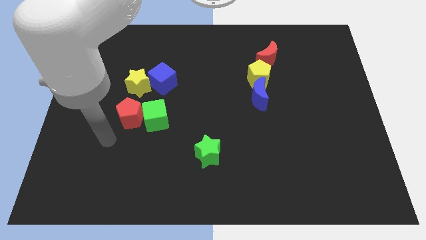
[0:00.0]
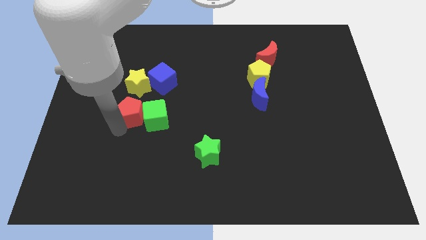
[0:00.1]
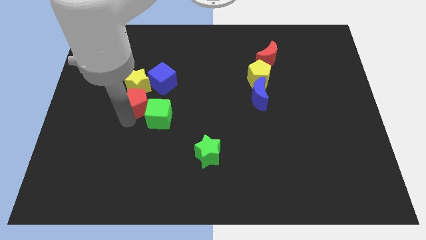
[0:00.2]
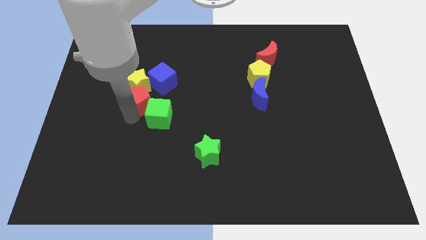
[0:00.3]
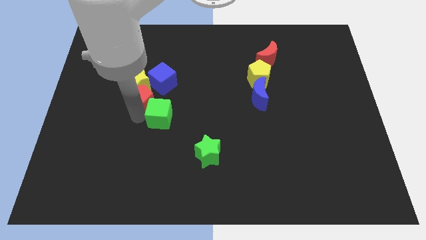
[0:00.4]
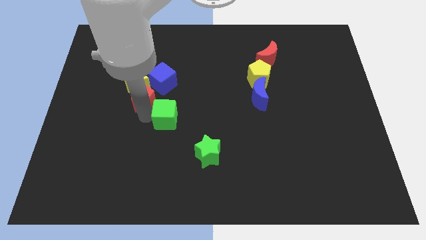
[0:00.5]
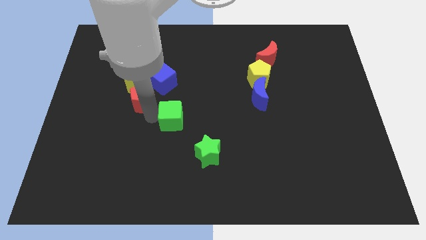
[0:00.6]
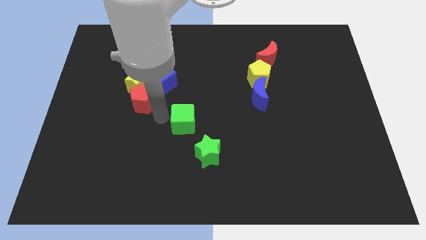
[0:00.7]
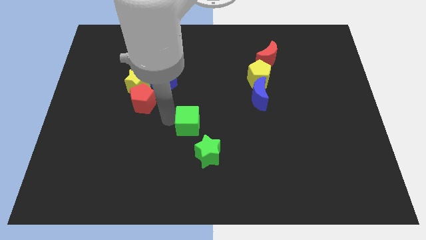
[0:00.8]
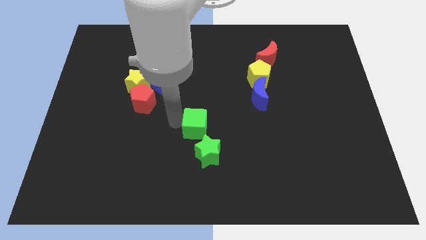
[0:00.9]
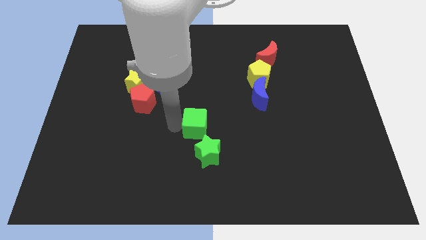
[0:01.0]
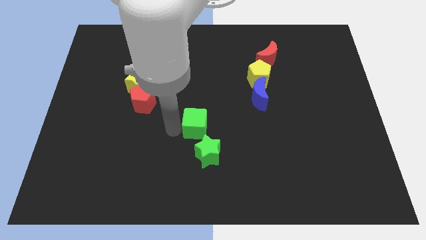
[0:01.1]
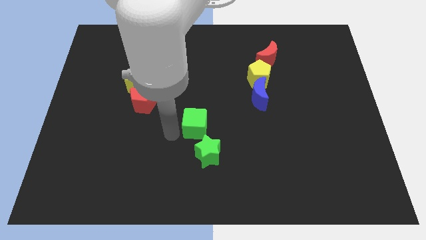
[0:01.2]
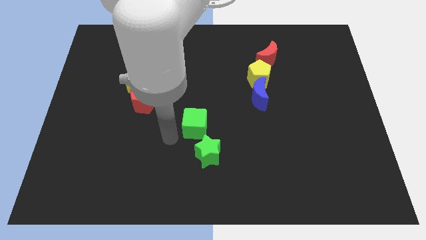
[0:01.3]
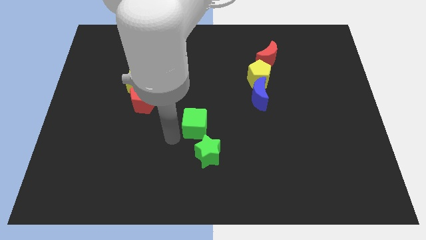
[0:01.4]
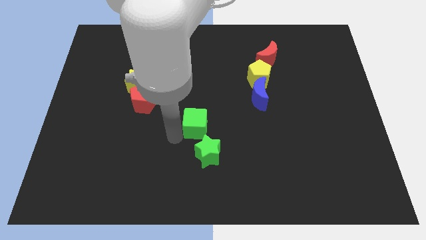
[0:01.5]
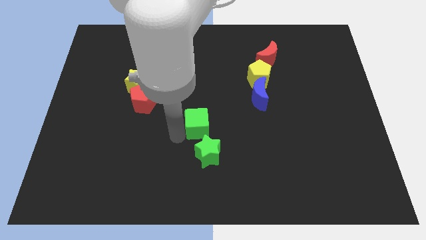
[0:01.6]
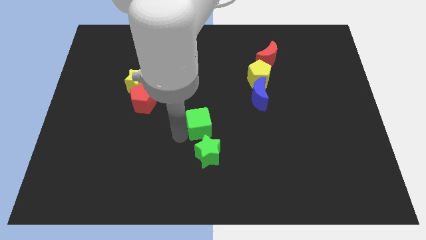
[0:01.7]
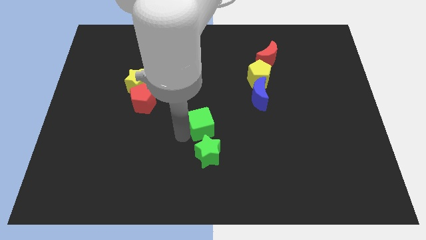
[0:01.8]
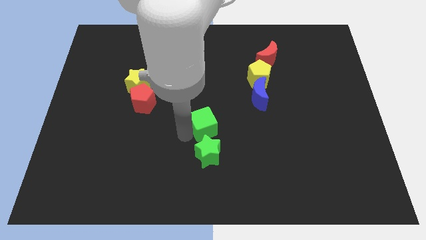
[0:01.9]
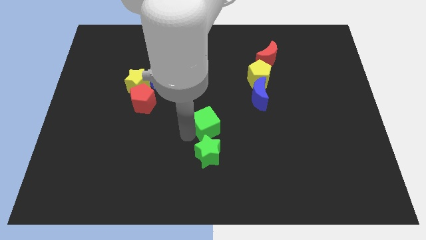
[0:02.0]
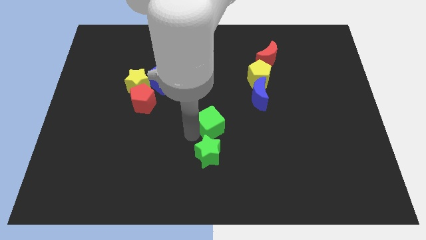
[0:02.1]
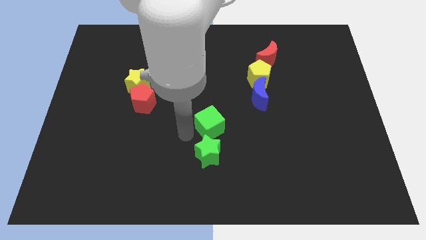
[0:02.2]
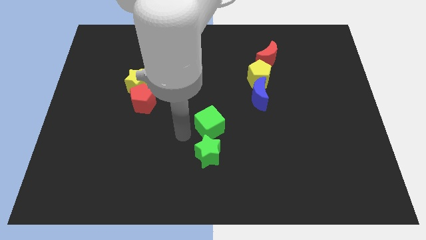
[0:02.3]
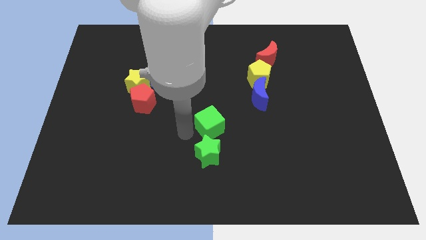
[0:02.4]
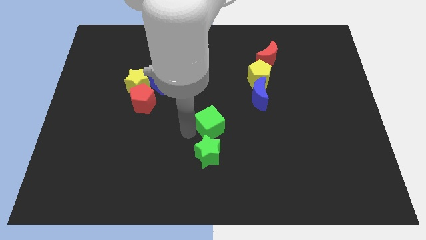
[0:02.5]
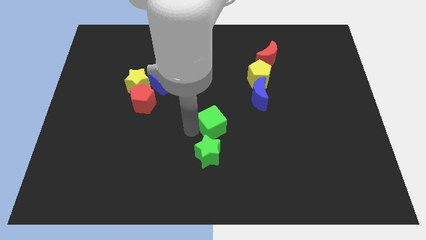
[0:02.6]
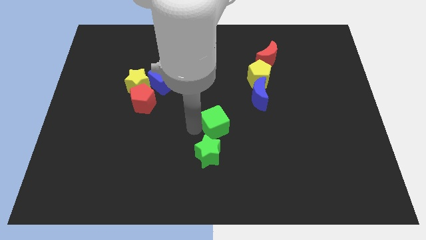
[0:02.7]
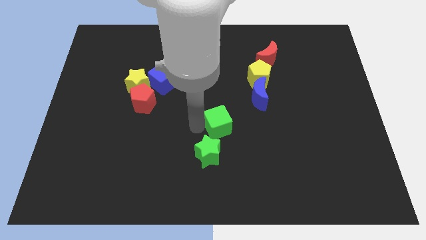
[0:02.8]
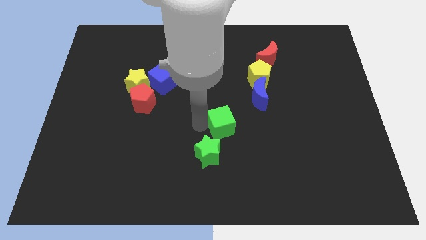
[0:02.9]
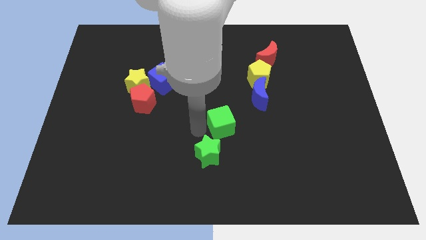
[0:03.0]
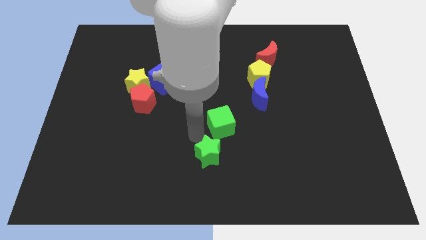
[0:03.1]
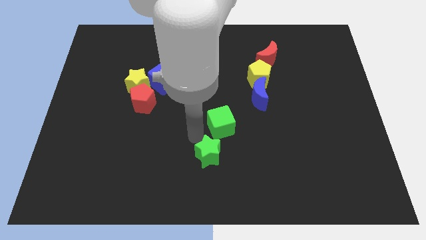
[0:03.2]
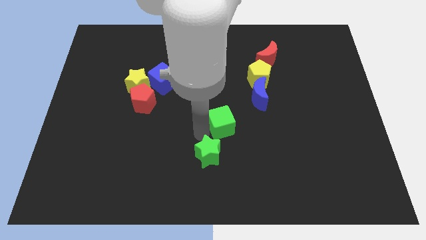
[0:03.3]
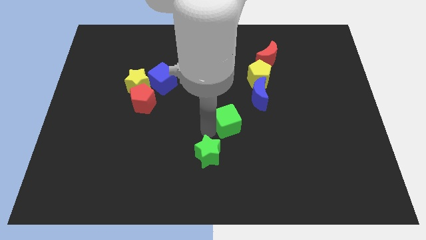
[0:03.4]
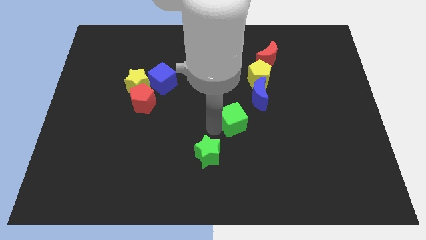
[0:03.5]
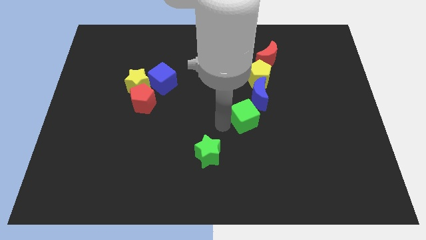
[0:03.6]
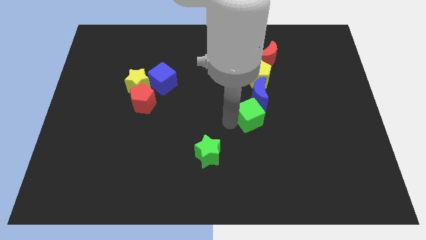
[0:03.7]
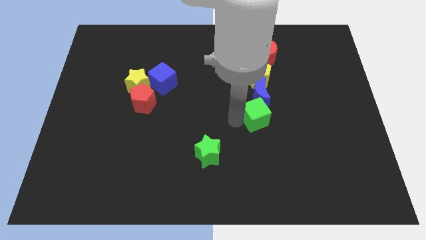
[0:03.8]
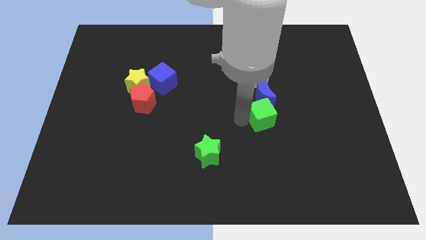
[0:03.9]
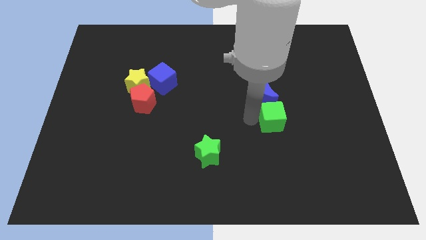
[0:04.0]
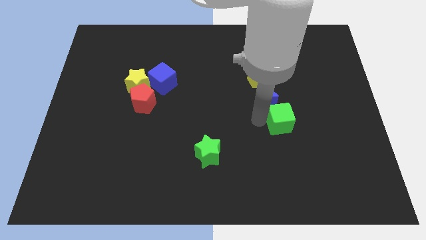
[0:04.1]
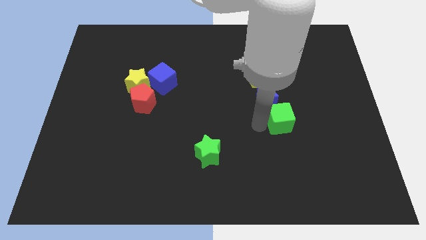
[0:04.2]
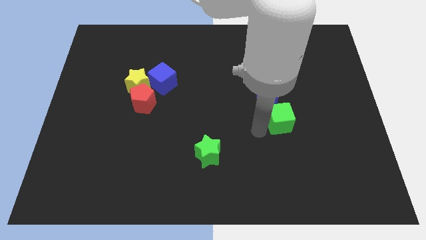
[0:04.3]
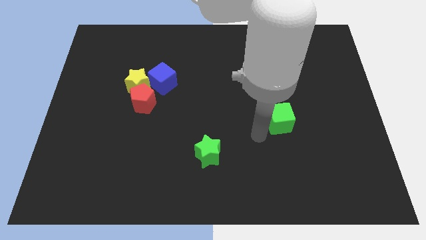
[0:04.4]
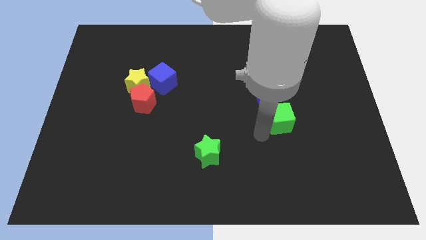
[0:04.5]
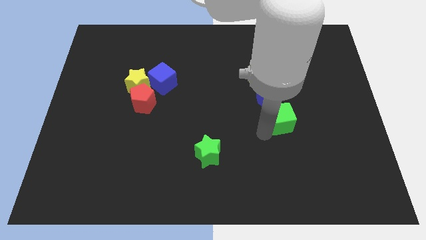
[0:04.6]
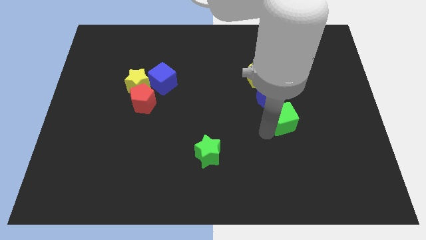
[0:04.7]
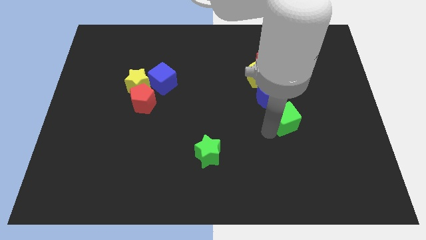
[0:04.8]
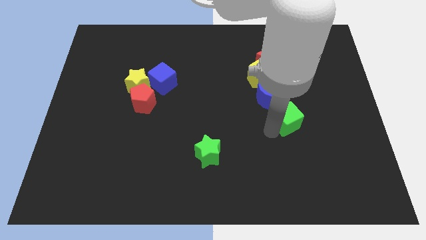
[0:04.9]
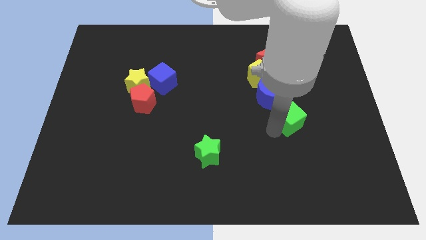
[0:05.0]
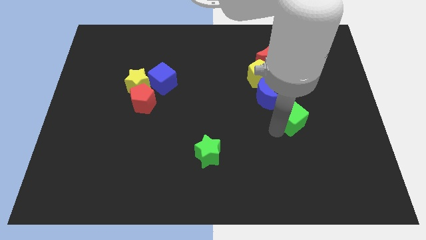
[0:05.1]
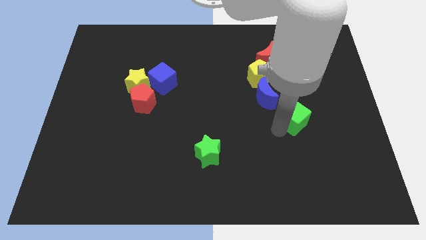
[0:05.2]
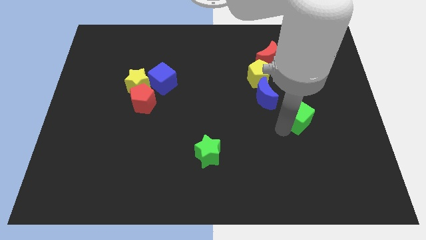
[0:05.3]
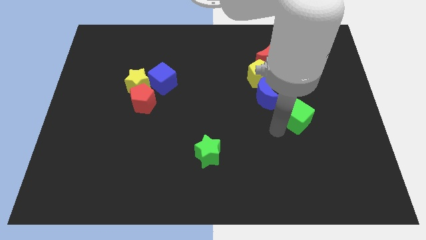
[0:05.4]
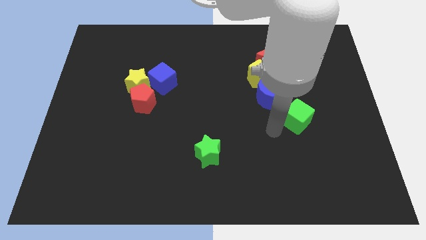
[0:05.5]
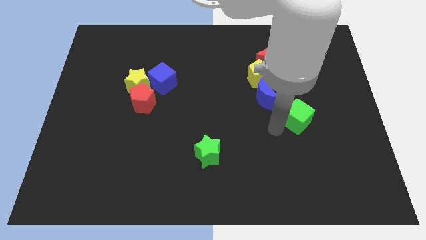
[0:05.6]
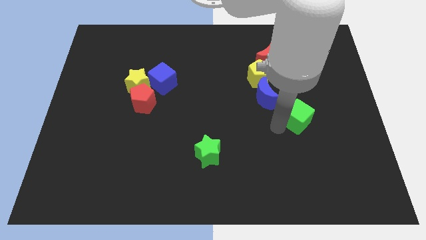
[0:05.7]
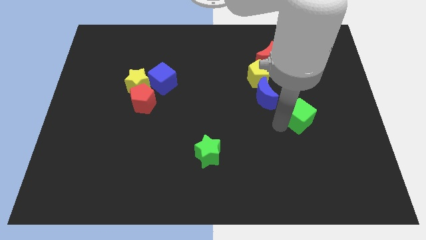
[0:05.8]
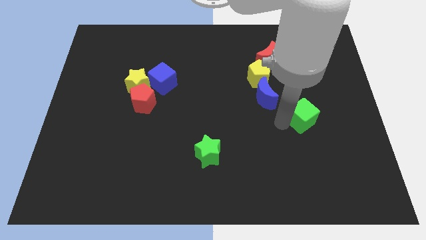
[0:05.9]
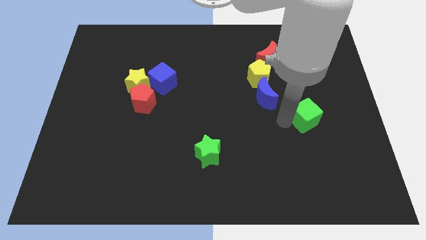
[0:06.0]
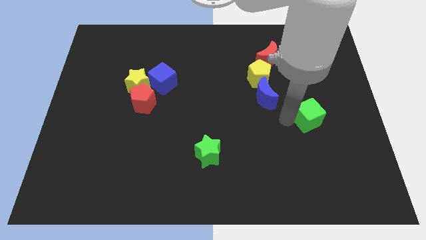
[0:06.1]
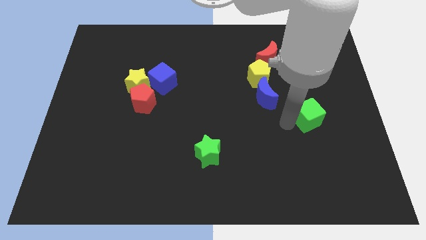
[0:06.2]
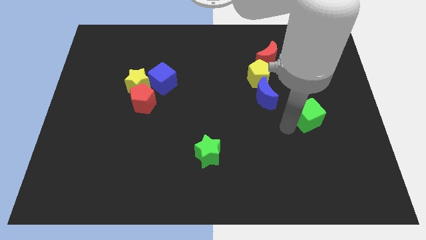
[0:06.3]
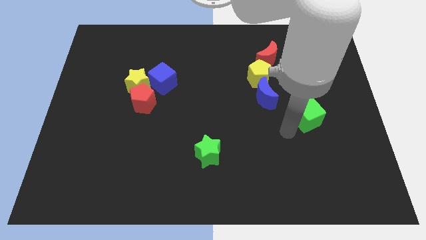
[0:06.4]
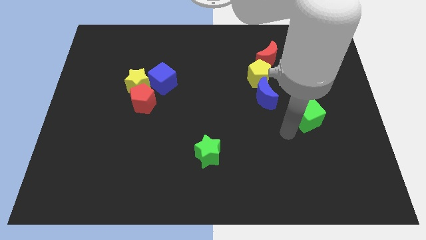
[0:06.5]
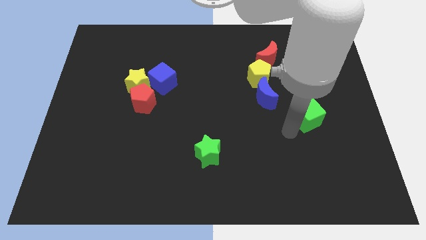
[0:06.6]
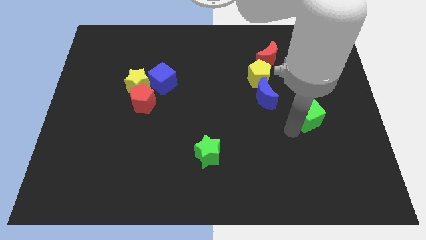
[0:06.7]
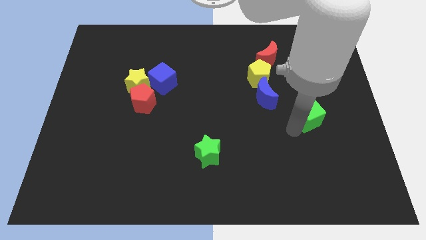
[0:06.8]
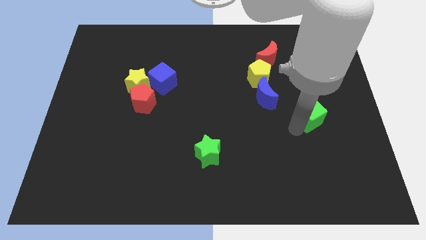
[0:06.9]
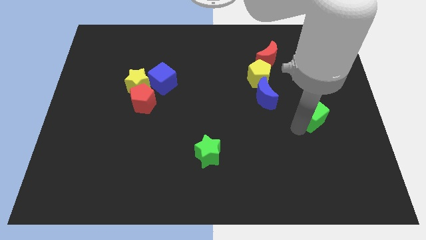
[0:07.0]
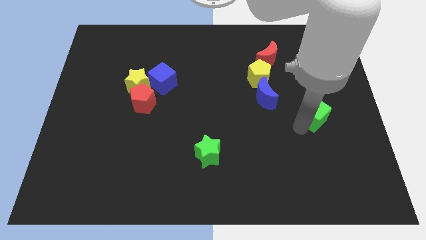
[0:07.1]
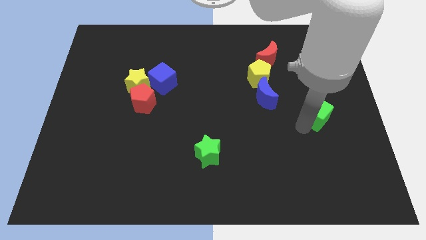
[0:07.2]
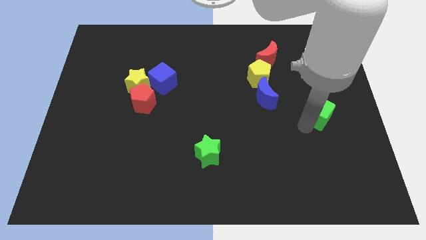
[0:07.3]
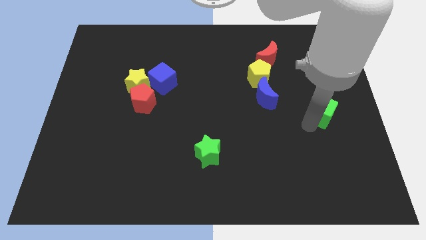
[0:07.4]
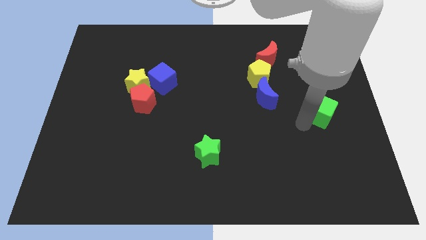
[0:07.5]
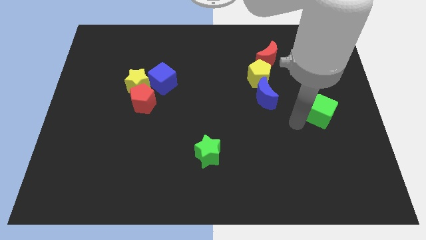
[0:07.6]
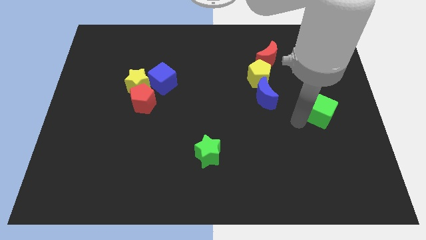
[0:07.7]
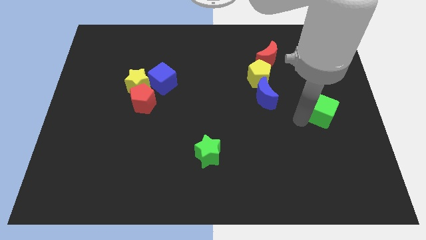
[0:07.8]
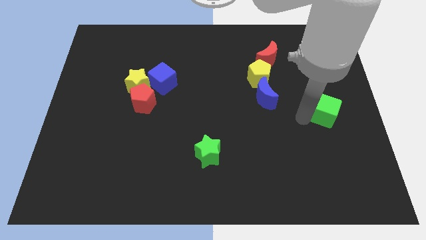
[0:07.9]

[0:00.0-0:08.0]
slide the green cube to the right side of the board
